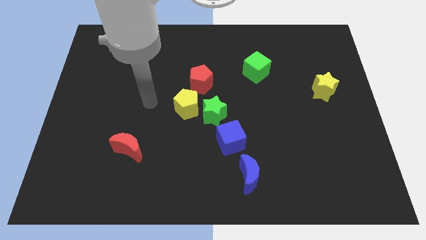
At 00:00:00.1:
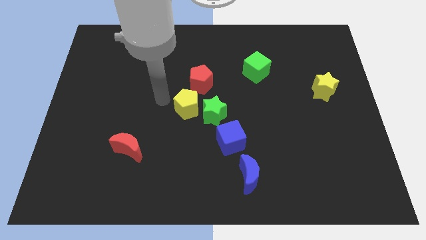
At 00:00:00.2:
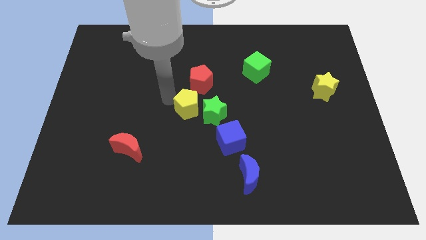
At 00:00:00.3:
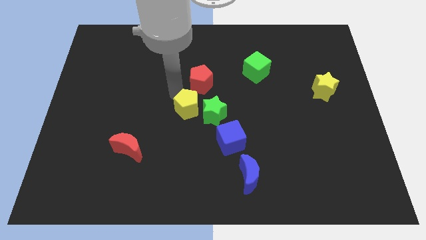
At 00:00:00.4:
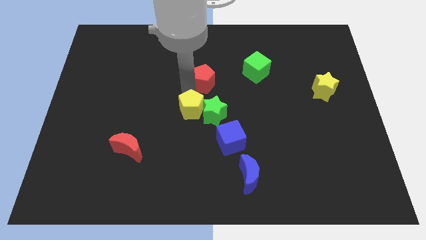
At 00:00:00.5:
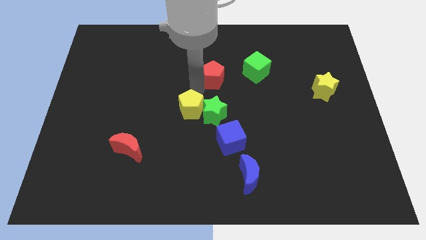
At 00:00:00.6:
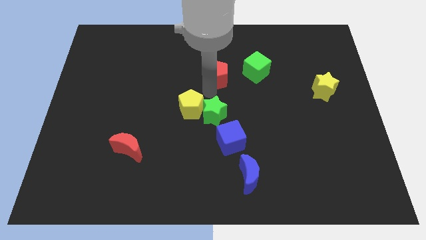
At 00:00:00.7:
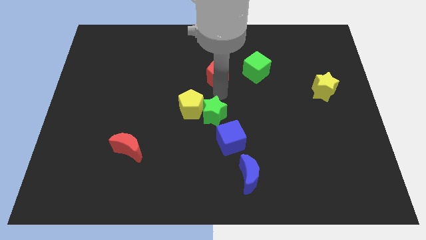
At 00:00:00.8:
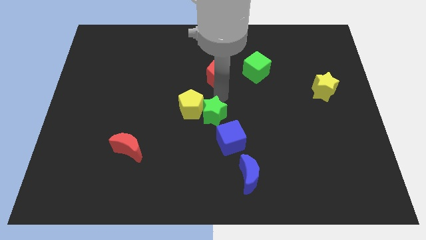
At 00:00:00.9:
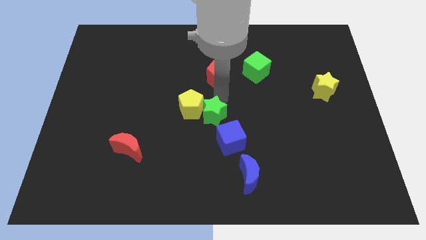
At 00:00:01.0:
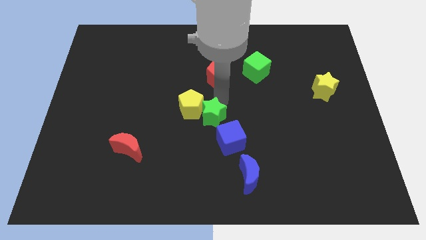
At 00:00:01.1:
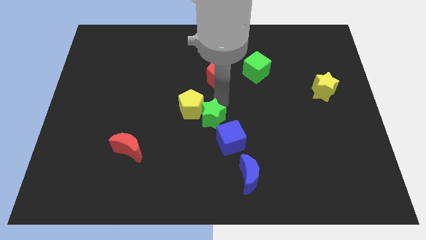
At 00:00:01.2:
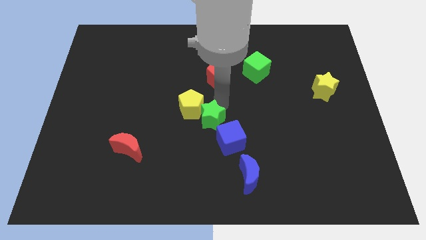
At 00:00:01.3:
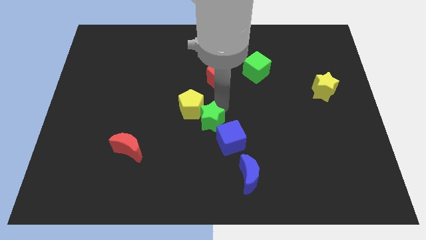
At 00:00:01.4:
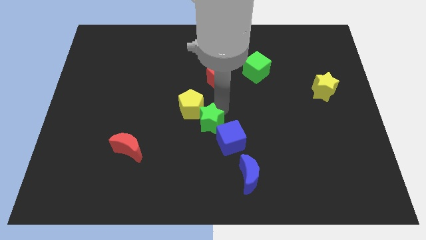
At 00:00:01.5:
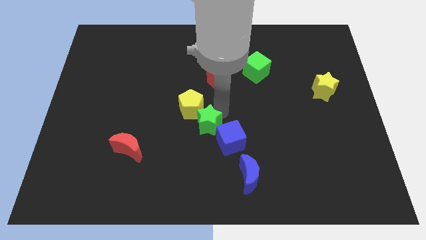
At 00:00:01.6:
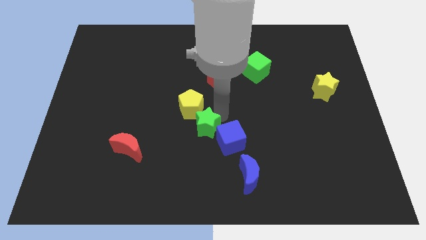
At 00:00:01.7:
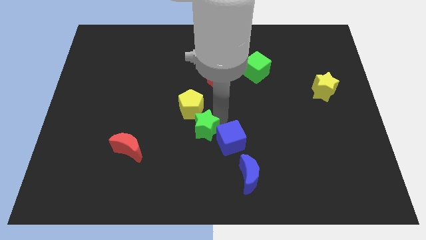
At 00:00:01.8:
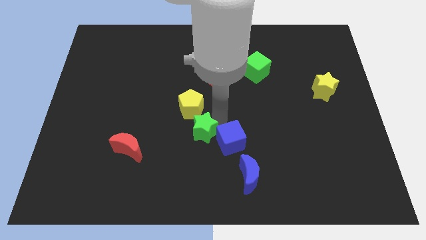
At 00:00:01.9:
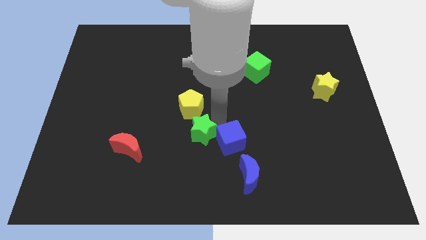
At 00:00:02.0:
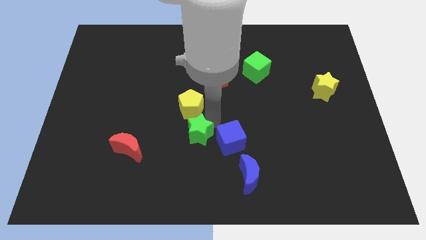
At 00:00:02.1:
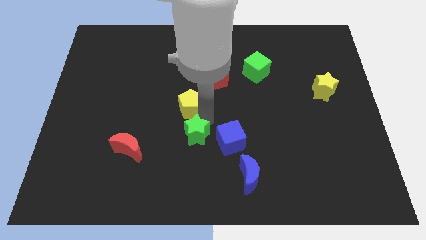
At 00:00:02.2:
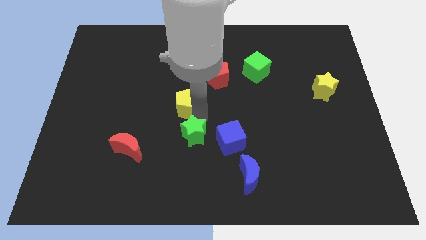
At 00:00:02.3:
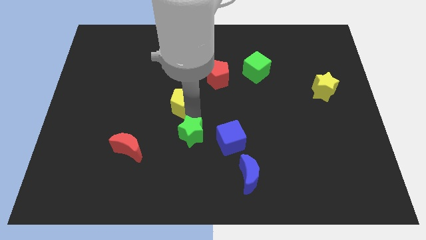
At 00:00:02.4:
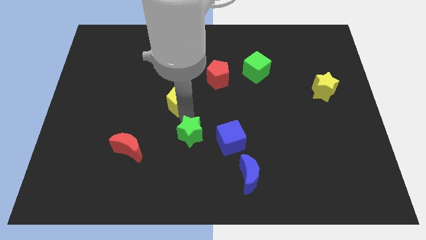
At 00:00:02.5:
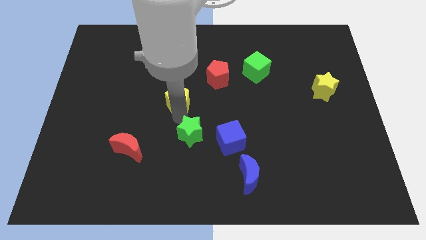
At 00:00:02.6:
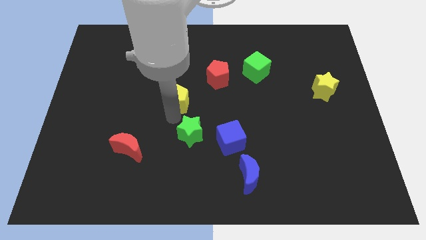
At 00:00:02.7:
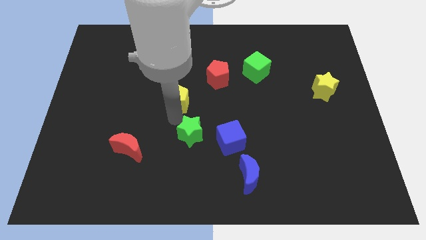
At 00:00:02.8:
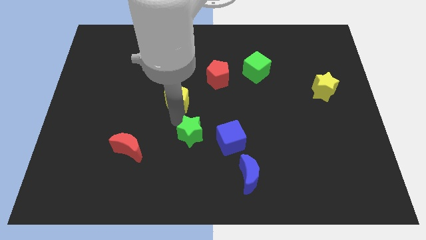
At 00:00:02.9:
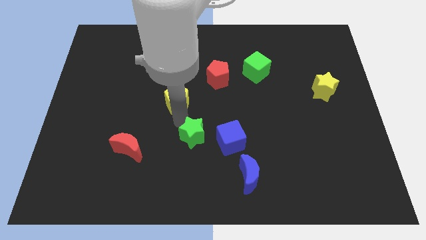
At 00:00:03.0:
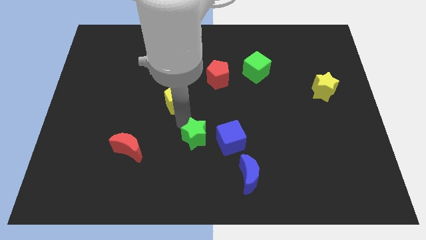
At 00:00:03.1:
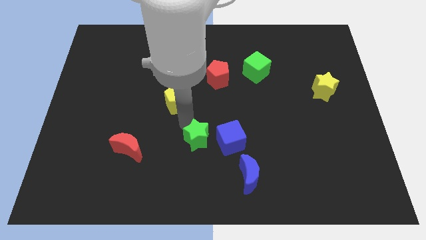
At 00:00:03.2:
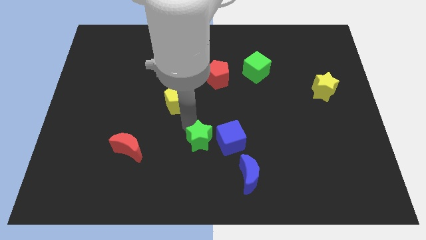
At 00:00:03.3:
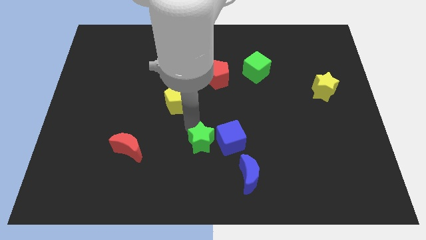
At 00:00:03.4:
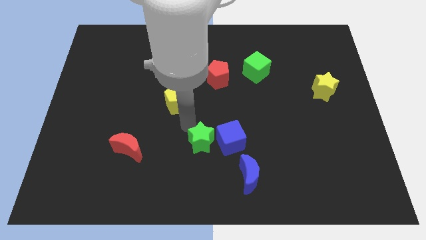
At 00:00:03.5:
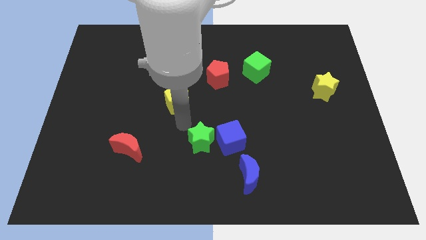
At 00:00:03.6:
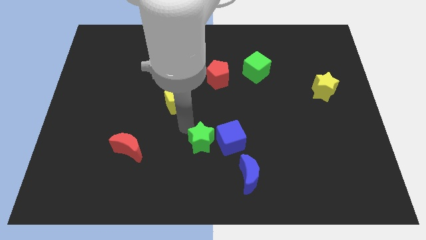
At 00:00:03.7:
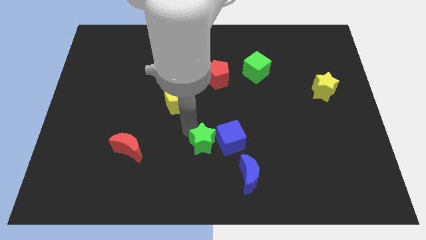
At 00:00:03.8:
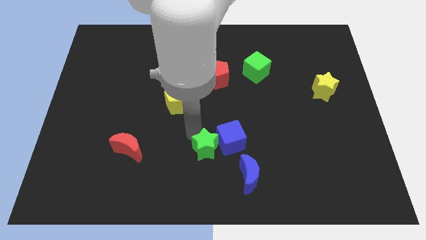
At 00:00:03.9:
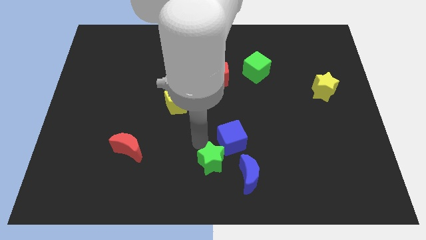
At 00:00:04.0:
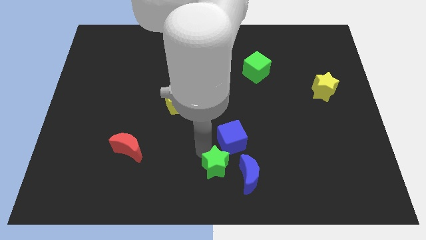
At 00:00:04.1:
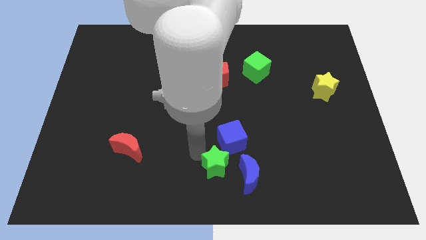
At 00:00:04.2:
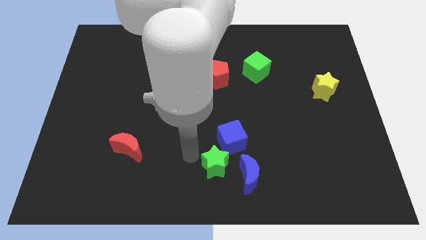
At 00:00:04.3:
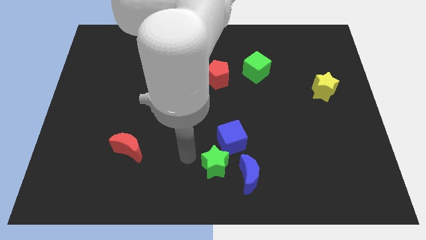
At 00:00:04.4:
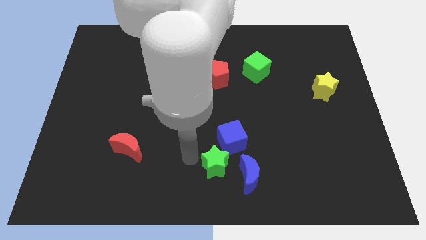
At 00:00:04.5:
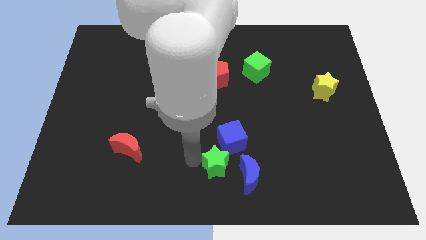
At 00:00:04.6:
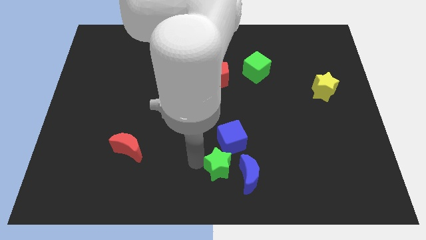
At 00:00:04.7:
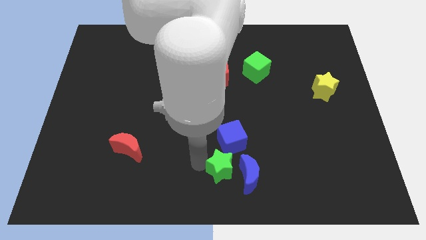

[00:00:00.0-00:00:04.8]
move the green star towards the blue moon

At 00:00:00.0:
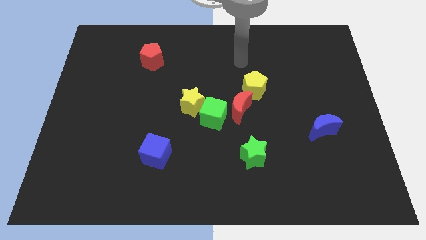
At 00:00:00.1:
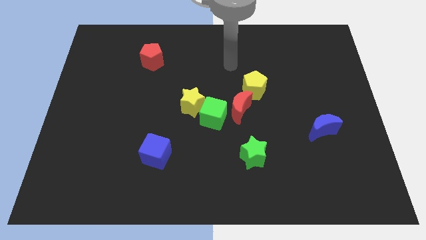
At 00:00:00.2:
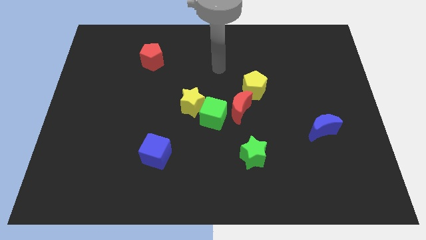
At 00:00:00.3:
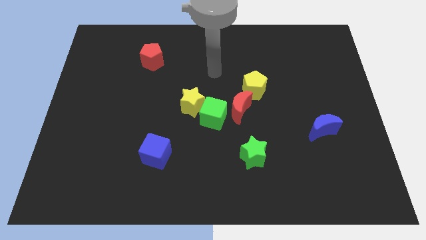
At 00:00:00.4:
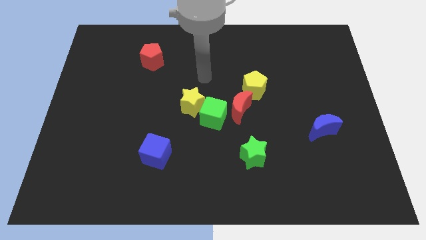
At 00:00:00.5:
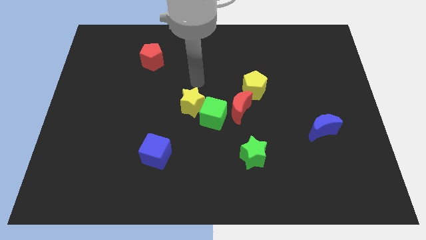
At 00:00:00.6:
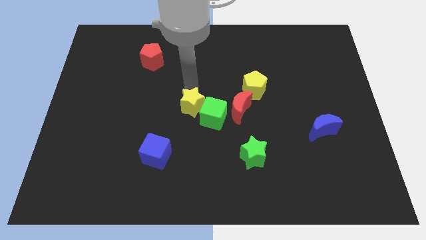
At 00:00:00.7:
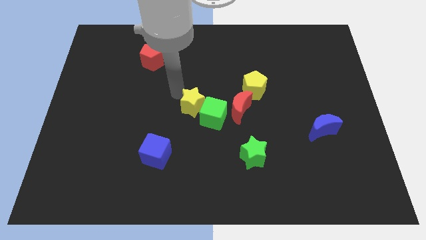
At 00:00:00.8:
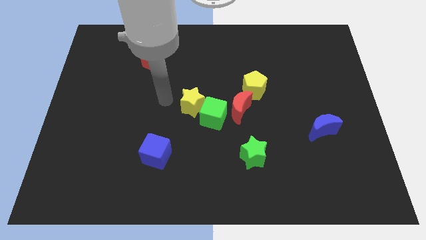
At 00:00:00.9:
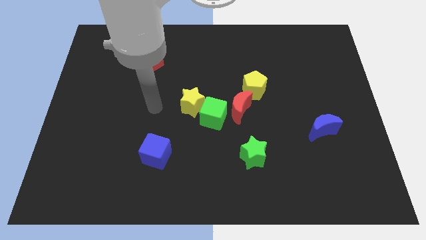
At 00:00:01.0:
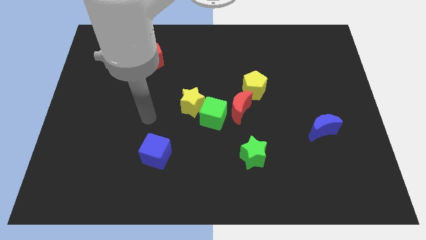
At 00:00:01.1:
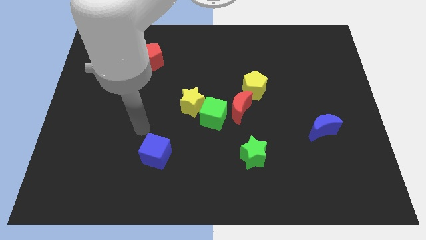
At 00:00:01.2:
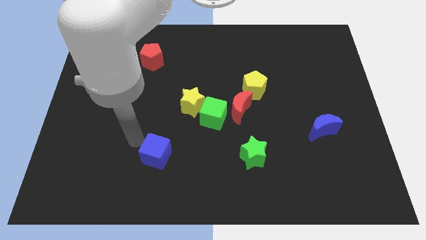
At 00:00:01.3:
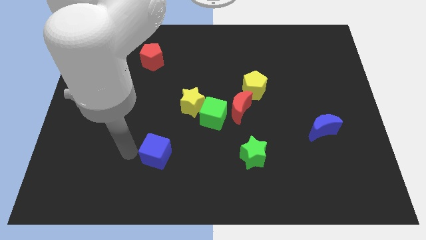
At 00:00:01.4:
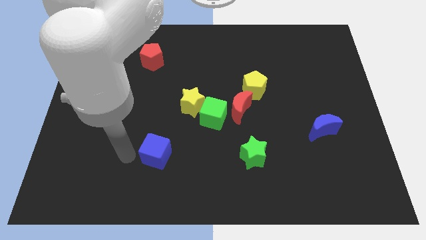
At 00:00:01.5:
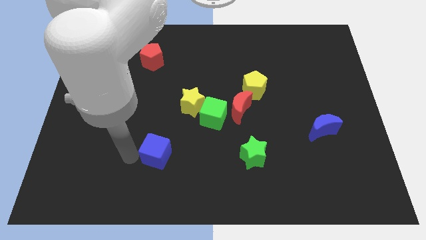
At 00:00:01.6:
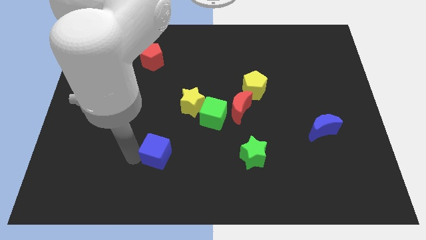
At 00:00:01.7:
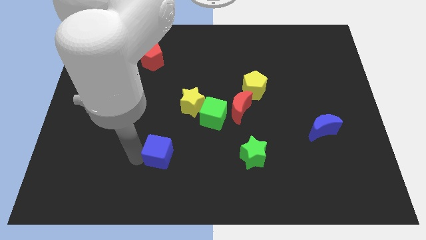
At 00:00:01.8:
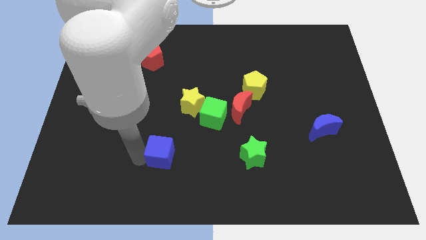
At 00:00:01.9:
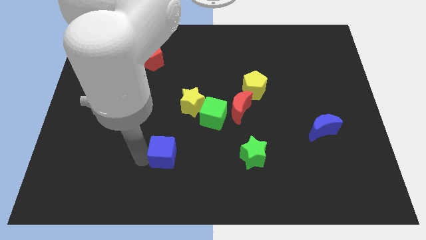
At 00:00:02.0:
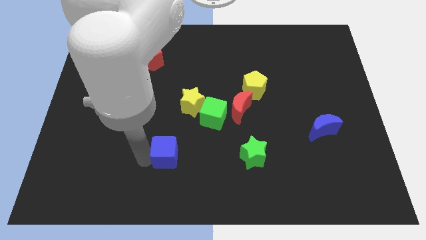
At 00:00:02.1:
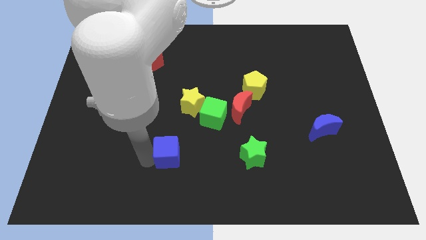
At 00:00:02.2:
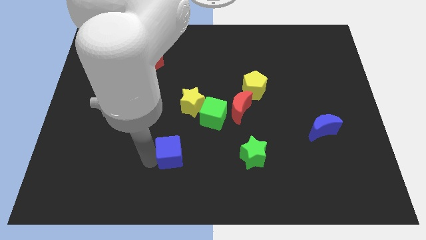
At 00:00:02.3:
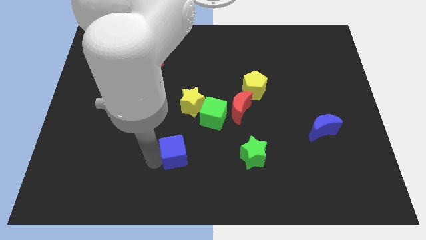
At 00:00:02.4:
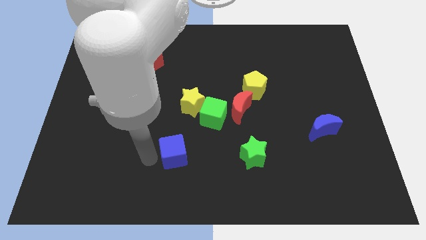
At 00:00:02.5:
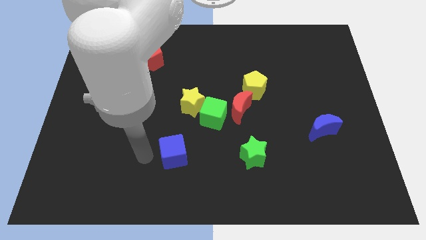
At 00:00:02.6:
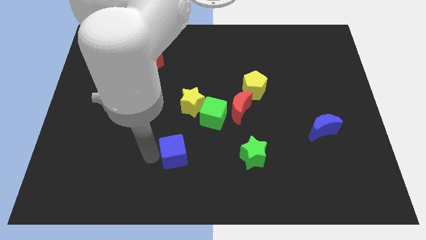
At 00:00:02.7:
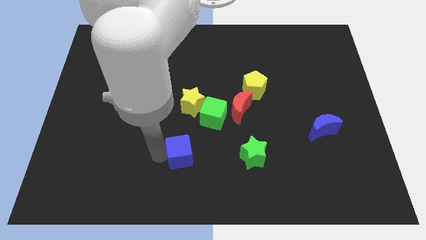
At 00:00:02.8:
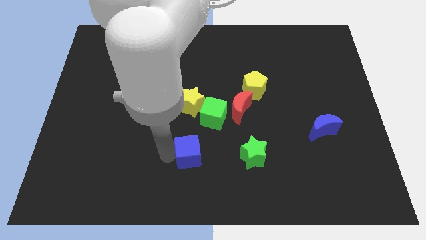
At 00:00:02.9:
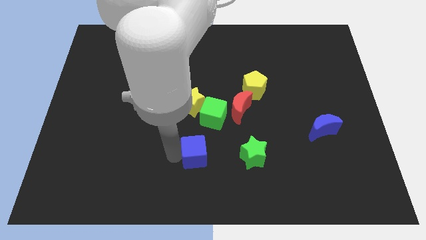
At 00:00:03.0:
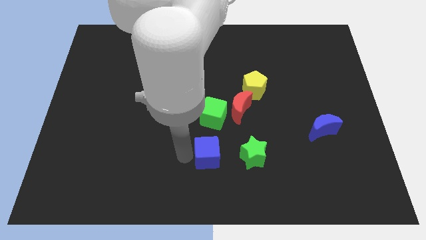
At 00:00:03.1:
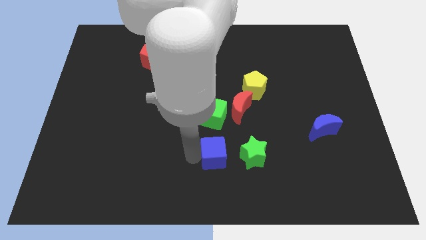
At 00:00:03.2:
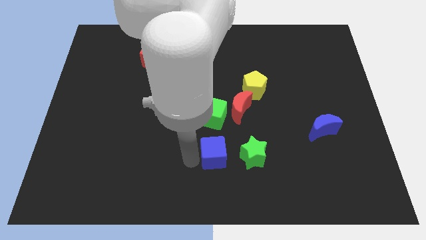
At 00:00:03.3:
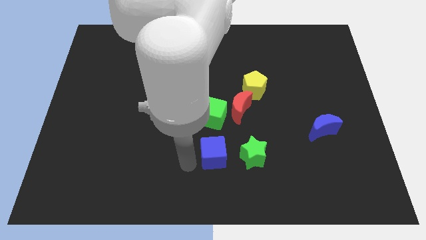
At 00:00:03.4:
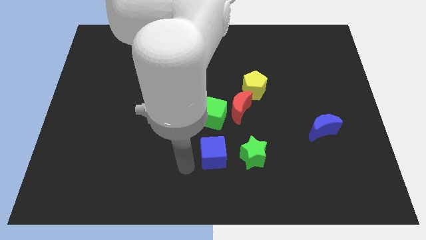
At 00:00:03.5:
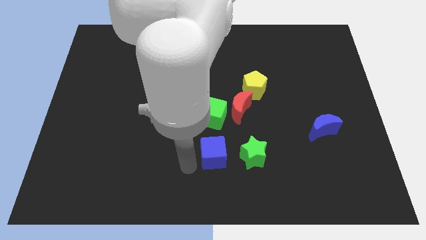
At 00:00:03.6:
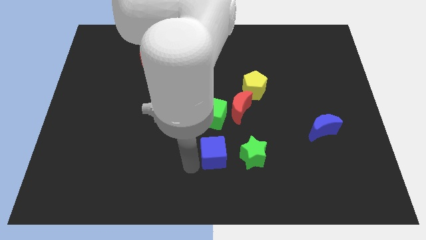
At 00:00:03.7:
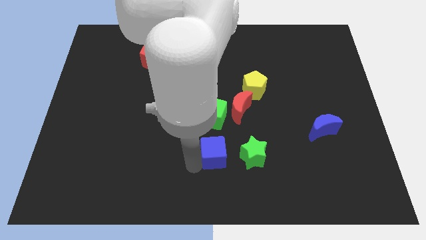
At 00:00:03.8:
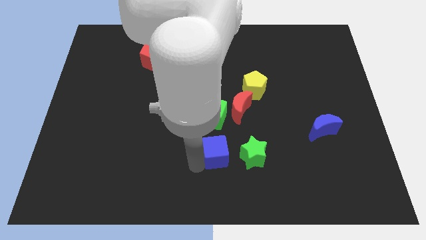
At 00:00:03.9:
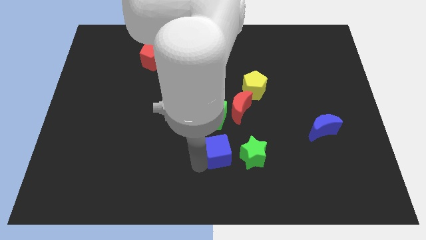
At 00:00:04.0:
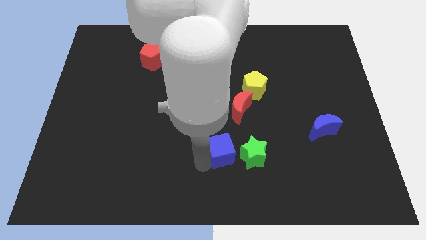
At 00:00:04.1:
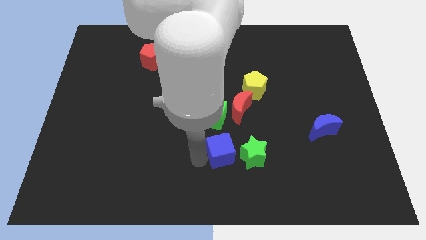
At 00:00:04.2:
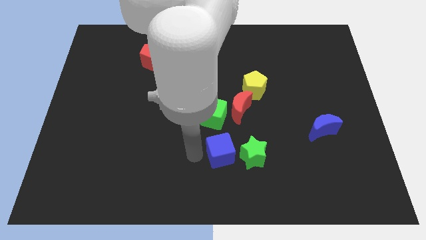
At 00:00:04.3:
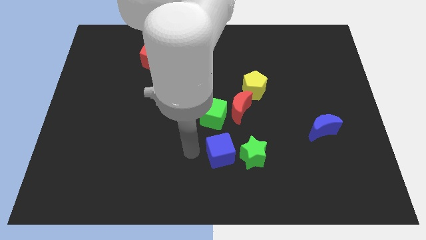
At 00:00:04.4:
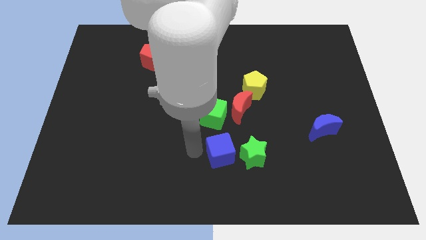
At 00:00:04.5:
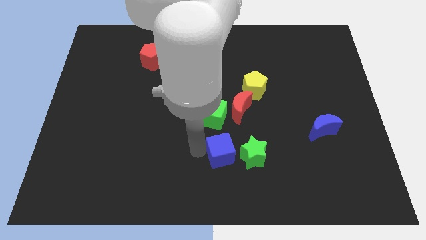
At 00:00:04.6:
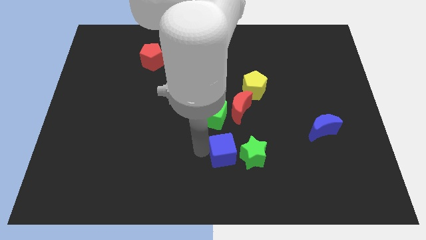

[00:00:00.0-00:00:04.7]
slide the blue cube to the green star
